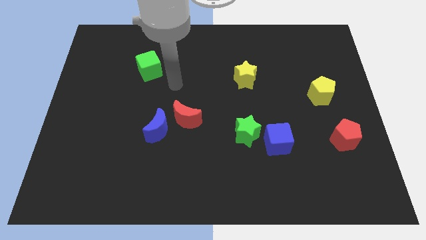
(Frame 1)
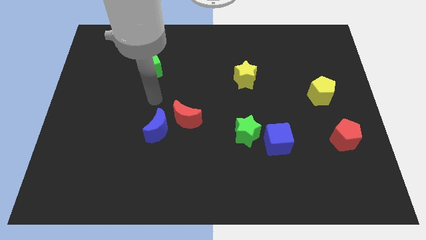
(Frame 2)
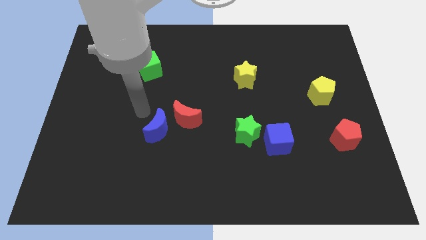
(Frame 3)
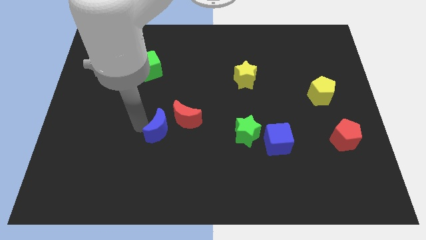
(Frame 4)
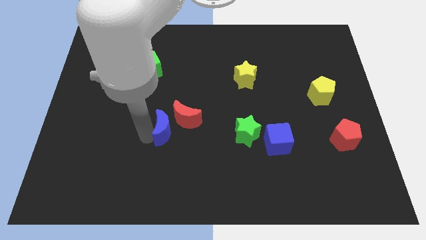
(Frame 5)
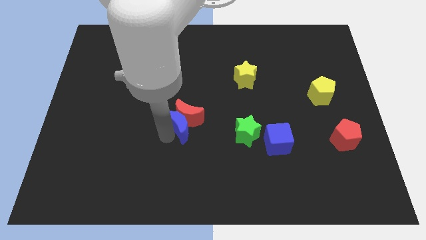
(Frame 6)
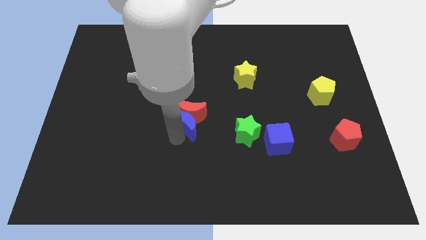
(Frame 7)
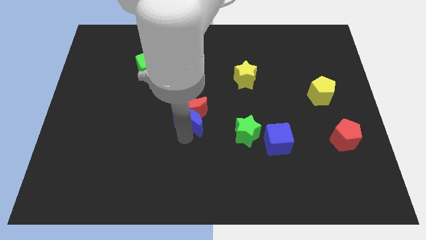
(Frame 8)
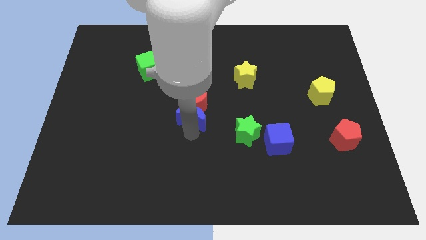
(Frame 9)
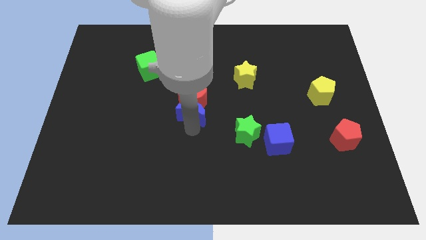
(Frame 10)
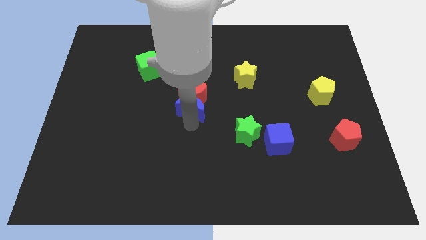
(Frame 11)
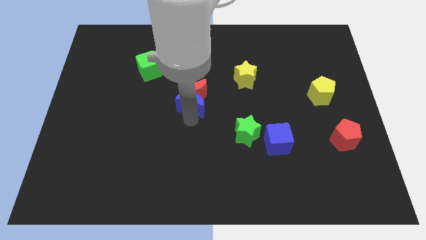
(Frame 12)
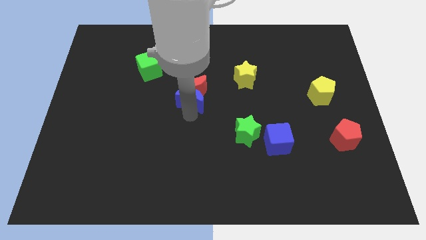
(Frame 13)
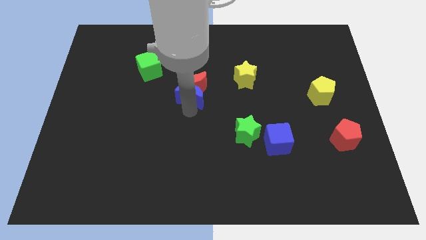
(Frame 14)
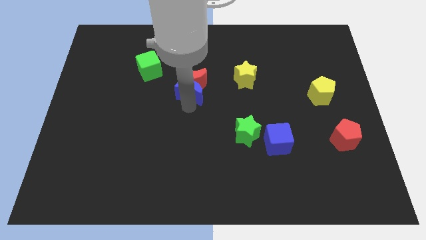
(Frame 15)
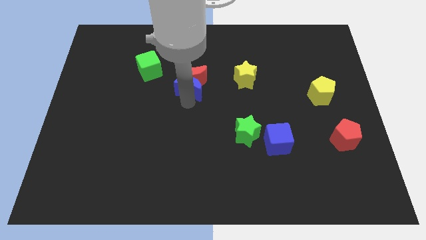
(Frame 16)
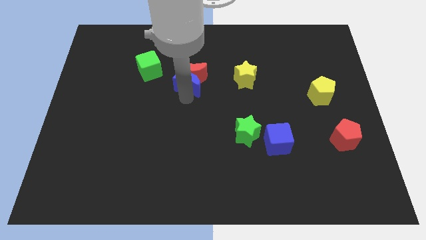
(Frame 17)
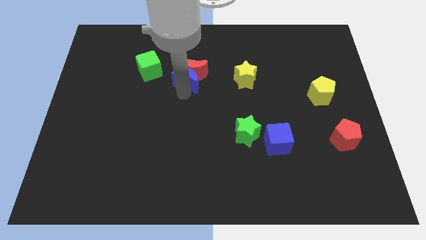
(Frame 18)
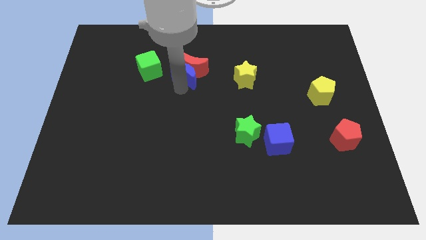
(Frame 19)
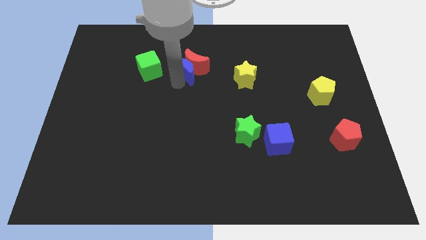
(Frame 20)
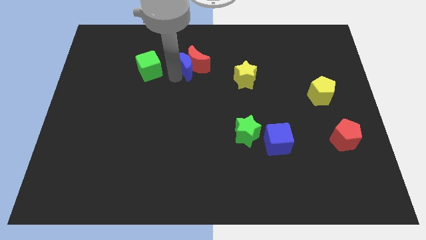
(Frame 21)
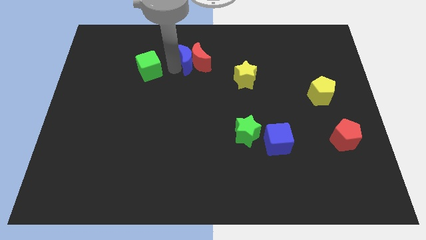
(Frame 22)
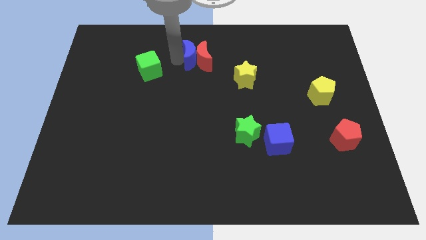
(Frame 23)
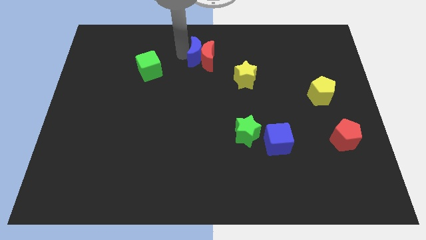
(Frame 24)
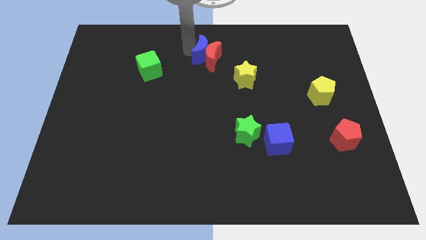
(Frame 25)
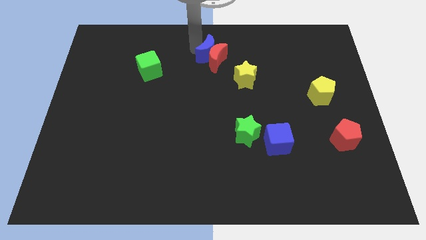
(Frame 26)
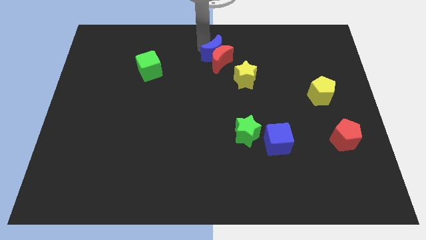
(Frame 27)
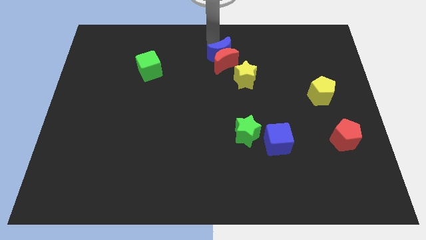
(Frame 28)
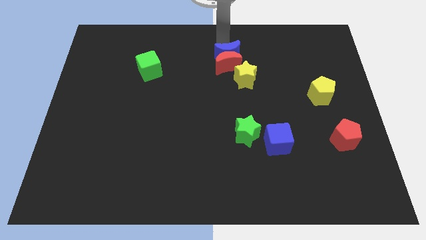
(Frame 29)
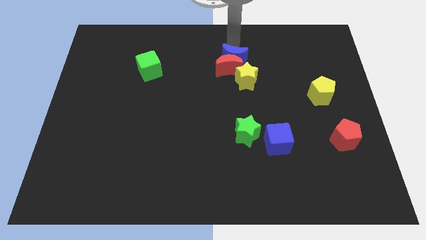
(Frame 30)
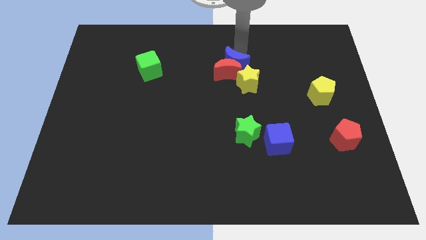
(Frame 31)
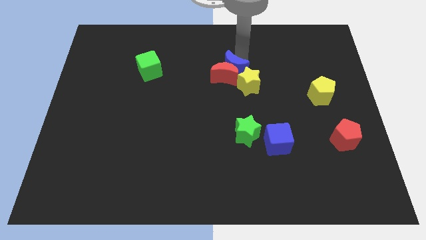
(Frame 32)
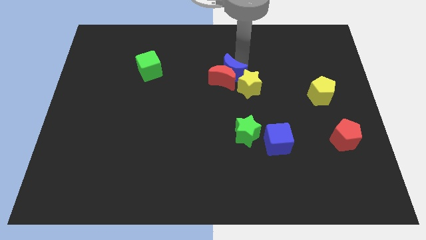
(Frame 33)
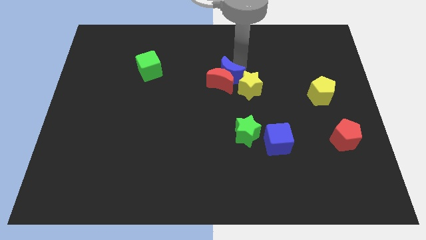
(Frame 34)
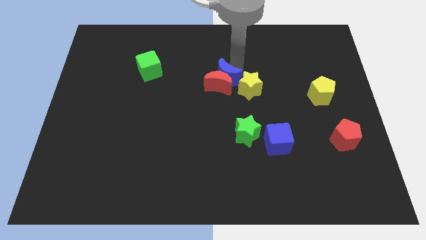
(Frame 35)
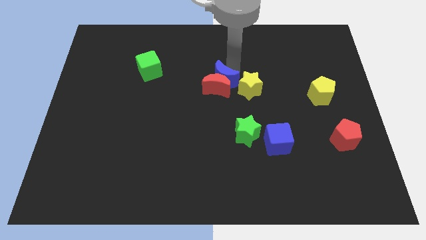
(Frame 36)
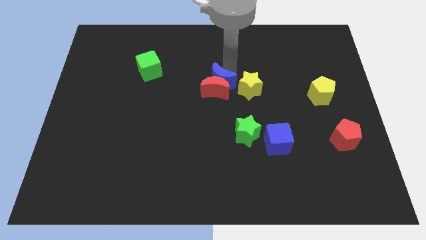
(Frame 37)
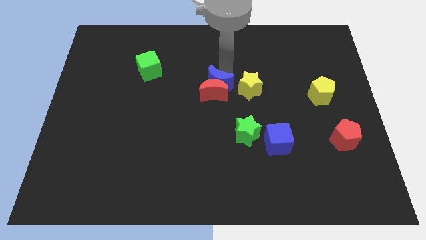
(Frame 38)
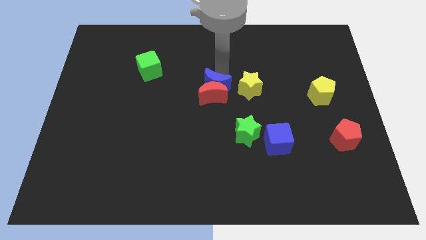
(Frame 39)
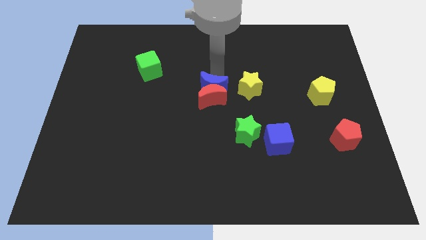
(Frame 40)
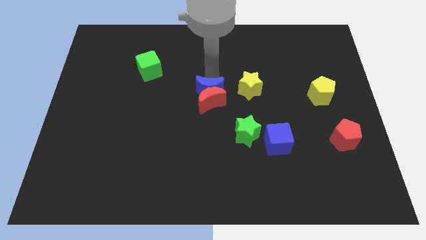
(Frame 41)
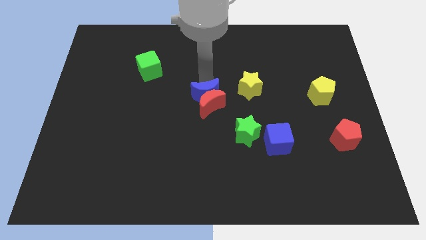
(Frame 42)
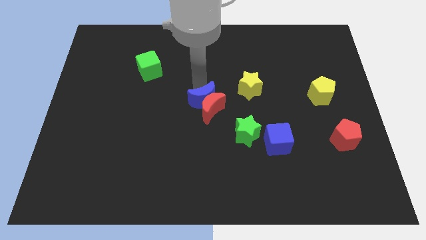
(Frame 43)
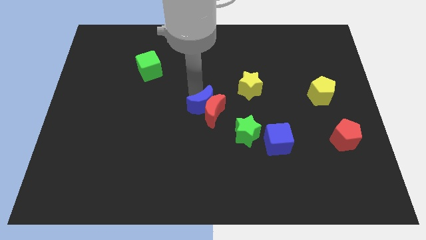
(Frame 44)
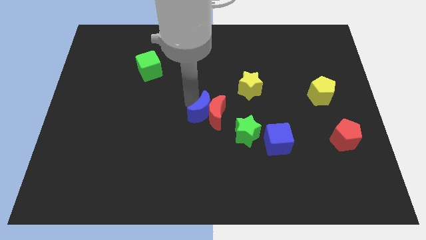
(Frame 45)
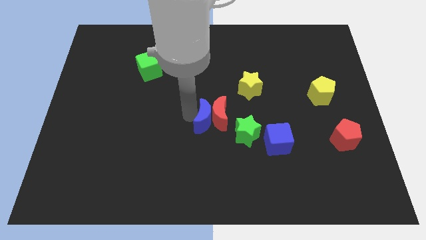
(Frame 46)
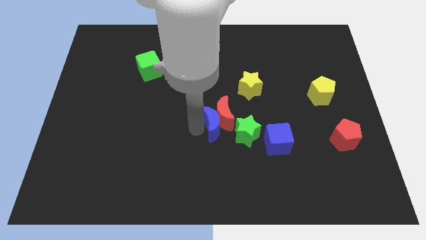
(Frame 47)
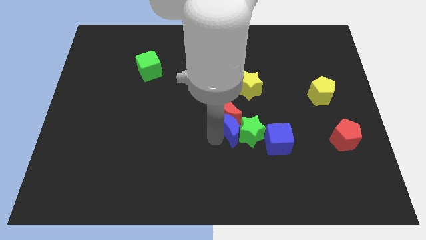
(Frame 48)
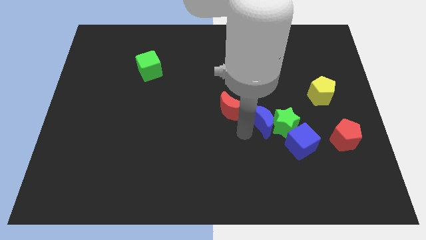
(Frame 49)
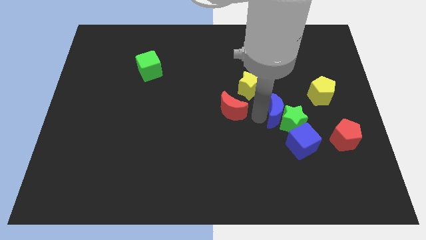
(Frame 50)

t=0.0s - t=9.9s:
pull the red moon apart from the blue moon

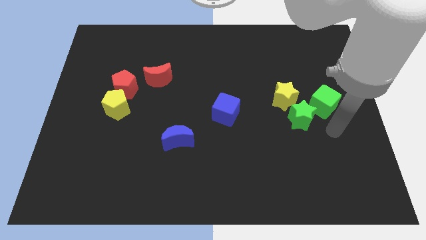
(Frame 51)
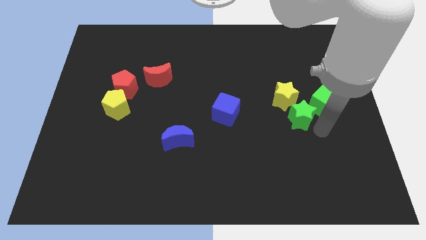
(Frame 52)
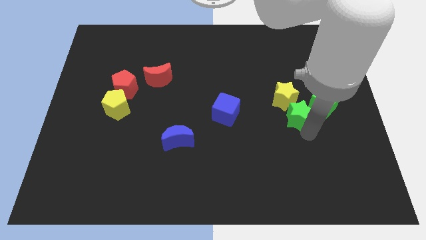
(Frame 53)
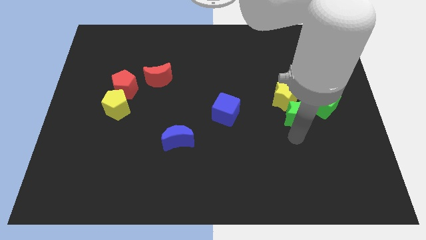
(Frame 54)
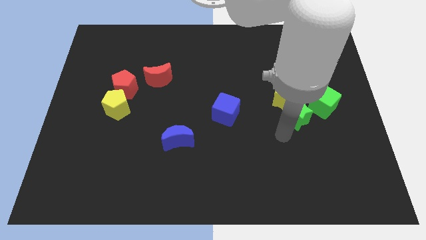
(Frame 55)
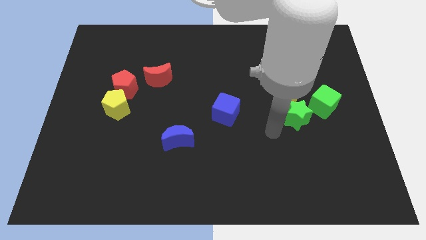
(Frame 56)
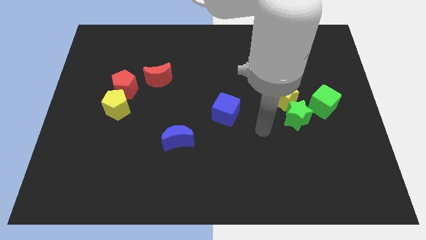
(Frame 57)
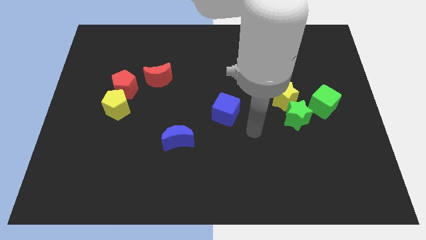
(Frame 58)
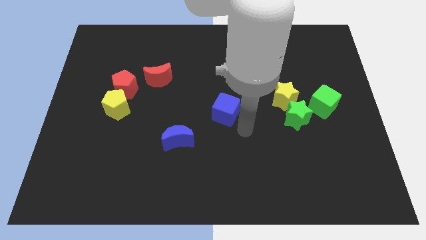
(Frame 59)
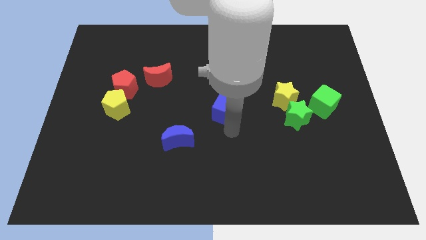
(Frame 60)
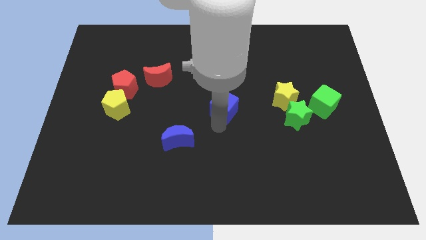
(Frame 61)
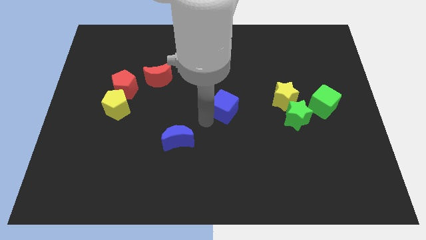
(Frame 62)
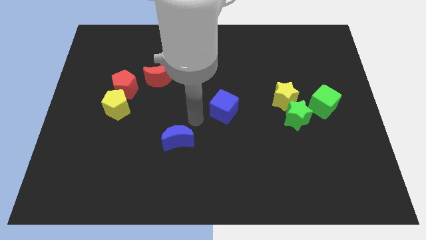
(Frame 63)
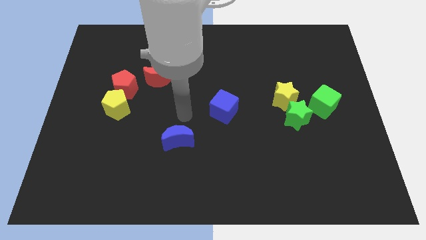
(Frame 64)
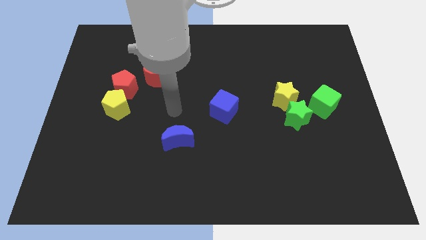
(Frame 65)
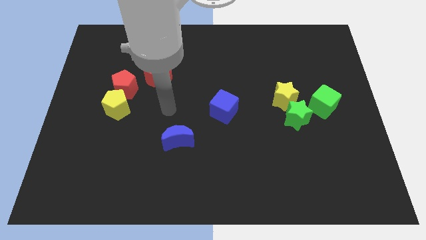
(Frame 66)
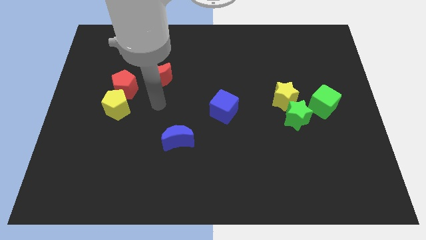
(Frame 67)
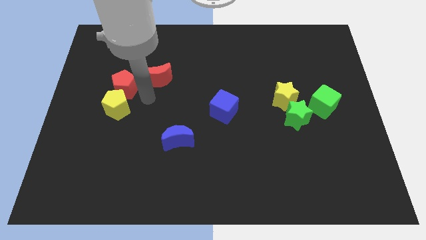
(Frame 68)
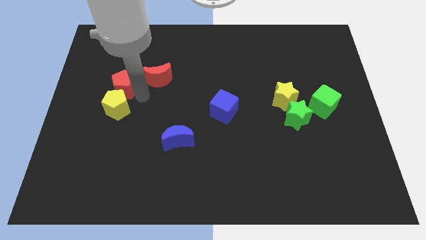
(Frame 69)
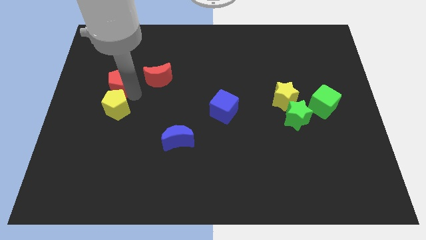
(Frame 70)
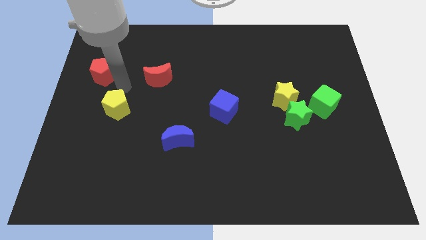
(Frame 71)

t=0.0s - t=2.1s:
pull the yellow pentagon apart from the red pentagon

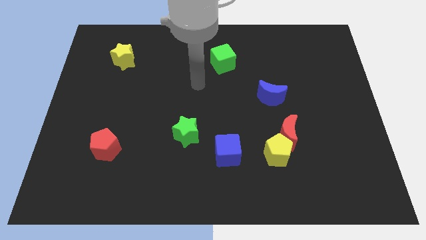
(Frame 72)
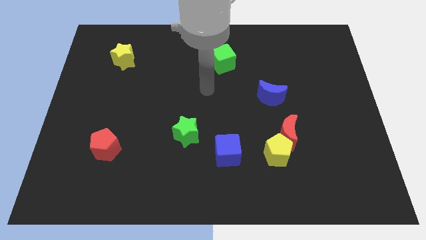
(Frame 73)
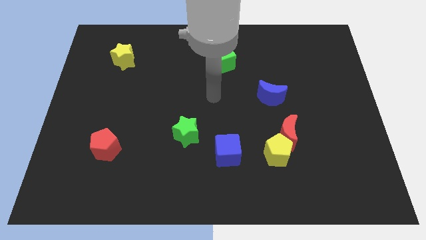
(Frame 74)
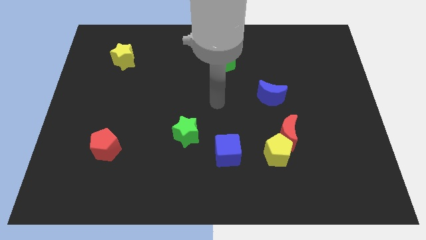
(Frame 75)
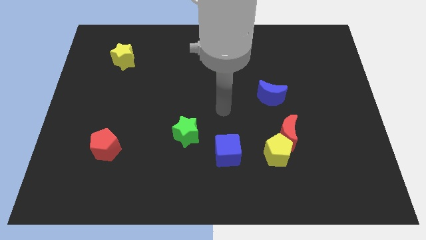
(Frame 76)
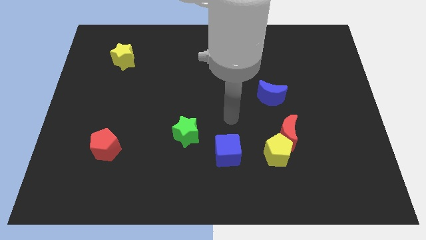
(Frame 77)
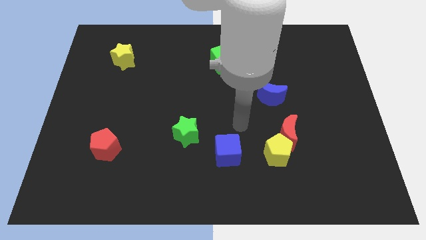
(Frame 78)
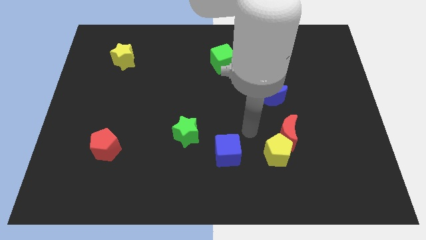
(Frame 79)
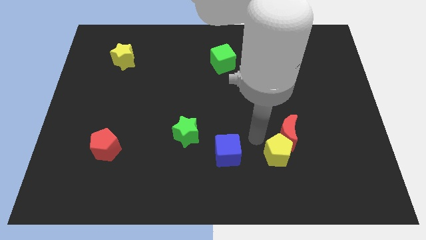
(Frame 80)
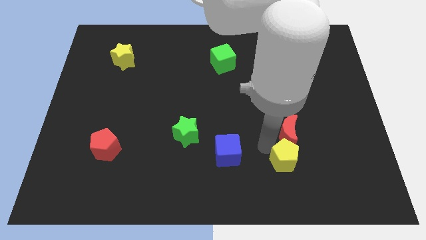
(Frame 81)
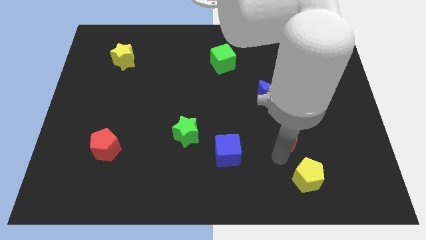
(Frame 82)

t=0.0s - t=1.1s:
pull the red moon apart from the yellow pentagon

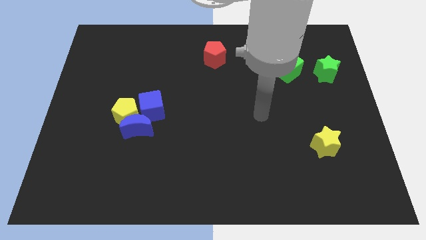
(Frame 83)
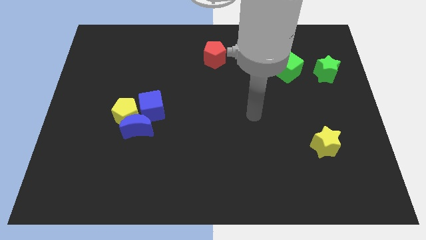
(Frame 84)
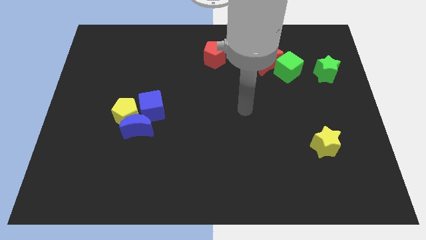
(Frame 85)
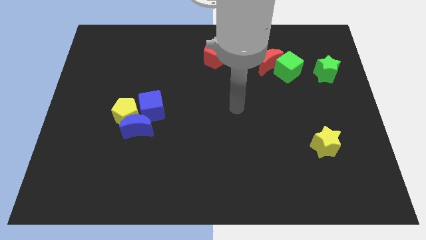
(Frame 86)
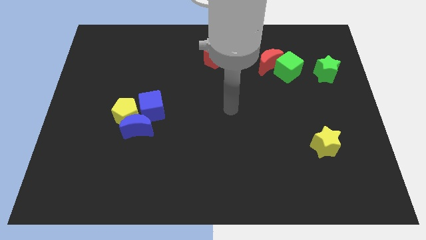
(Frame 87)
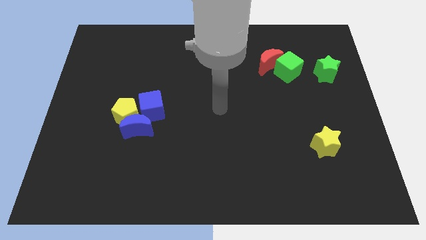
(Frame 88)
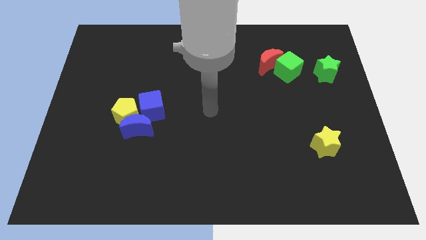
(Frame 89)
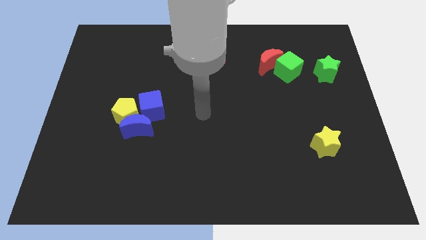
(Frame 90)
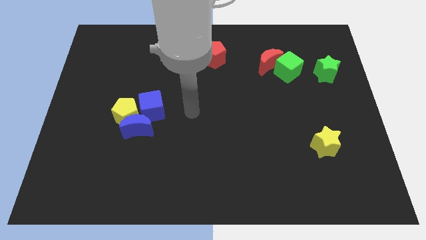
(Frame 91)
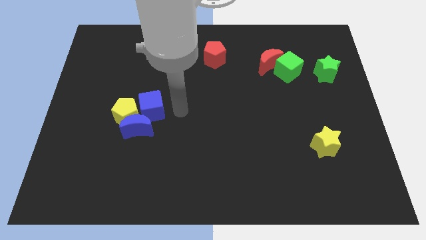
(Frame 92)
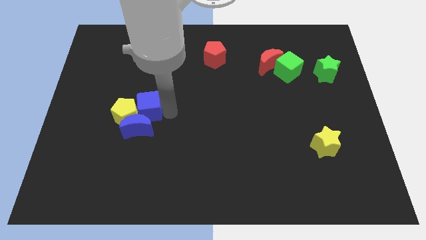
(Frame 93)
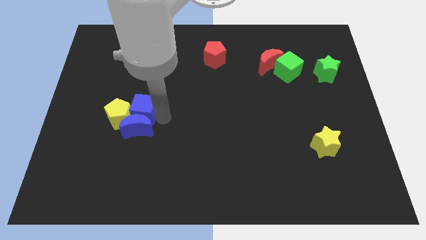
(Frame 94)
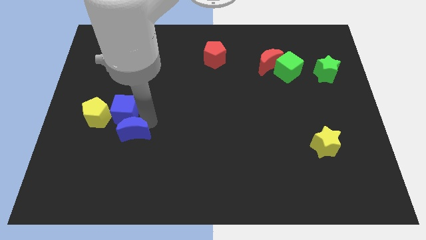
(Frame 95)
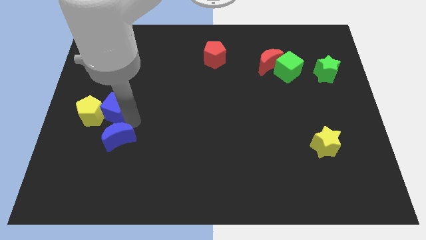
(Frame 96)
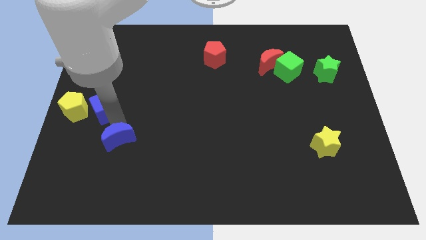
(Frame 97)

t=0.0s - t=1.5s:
separate the yellow pentagon from the blue moon and blue cube
